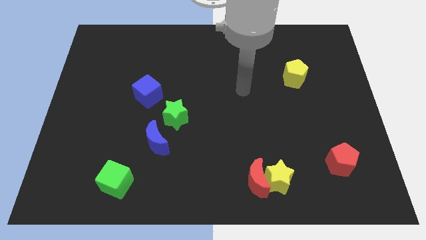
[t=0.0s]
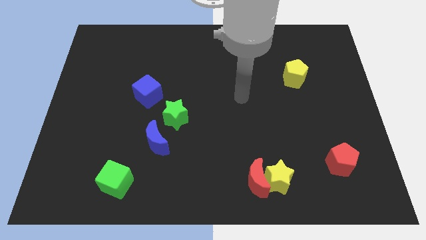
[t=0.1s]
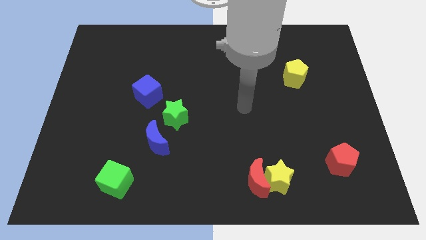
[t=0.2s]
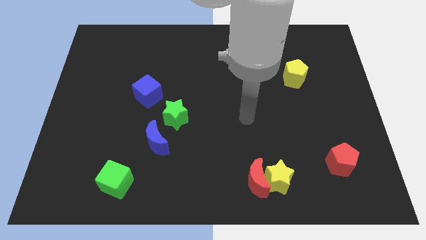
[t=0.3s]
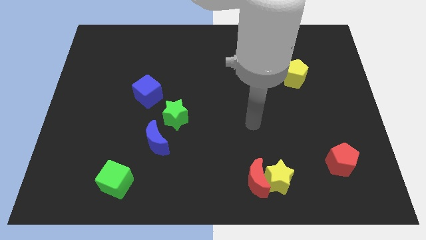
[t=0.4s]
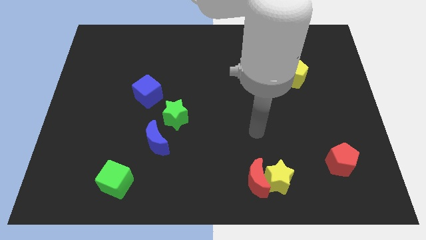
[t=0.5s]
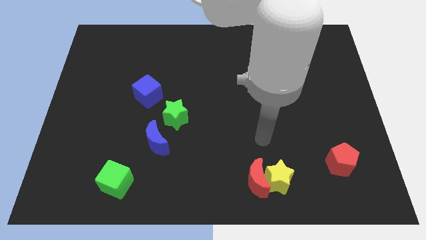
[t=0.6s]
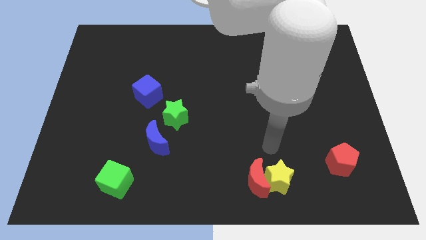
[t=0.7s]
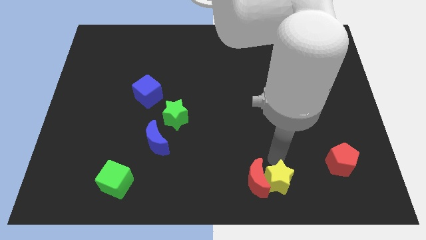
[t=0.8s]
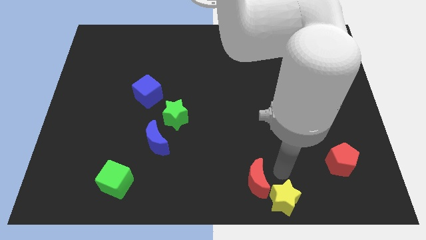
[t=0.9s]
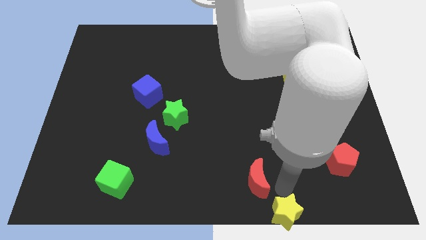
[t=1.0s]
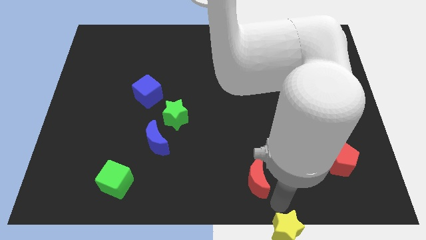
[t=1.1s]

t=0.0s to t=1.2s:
pull the red moon apart from the yellow star

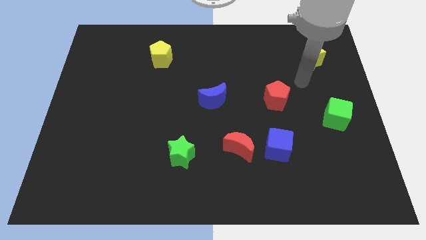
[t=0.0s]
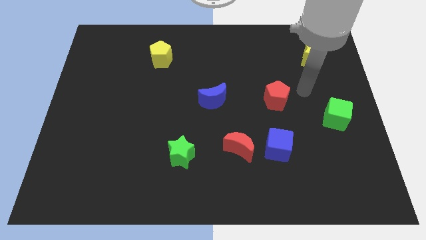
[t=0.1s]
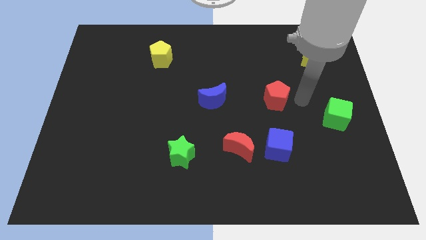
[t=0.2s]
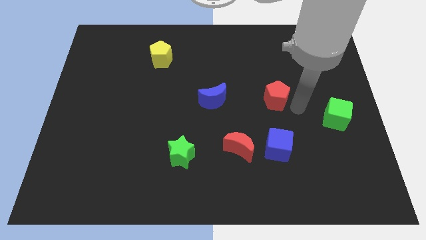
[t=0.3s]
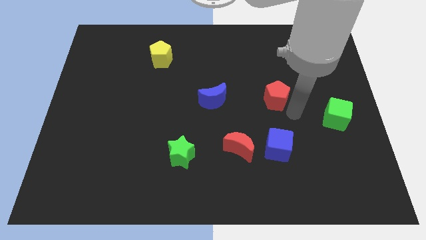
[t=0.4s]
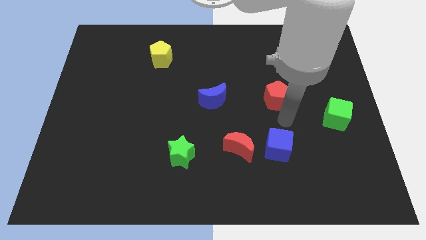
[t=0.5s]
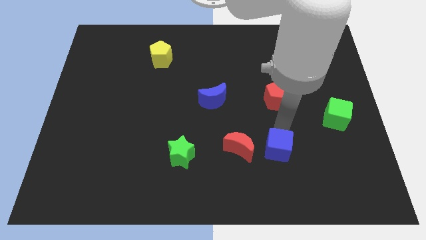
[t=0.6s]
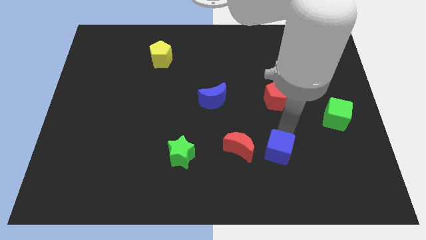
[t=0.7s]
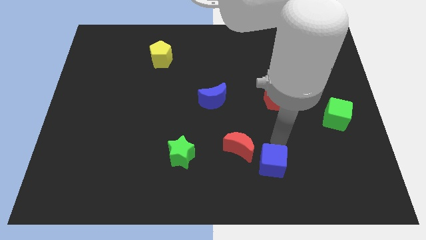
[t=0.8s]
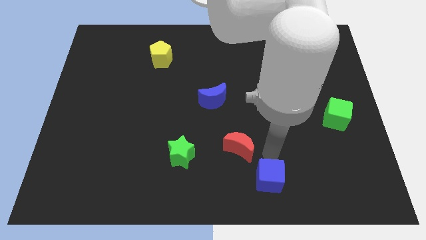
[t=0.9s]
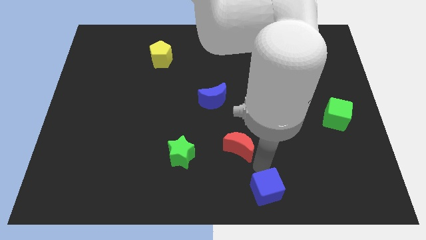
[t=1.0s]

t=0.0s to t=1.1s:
pull the red moon apart from the blue cube

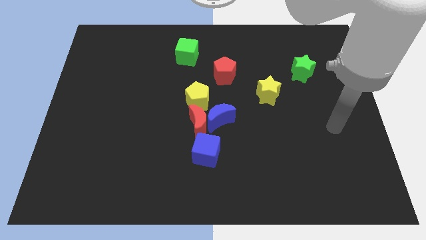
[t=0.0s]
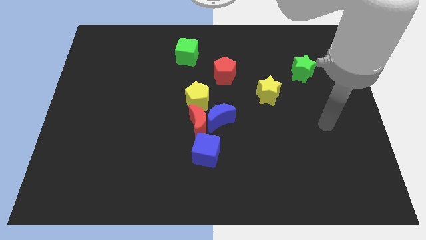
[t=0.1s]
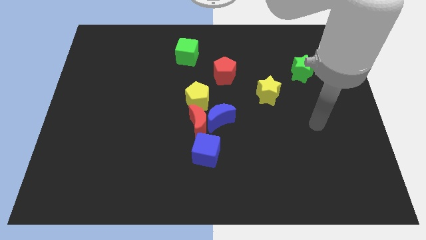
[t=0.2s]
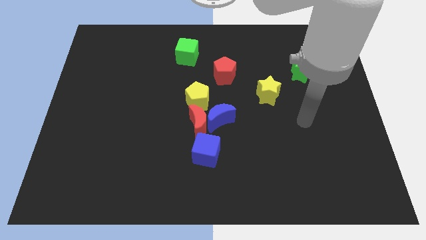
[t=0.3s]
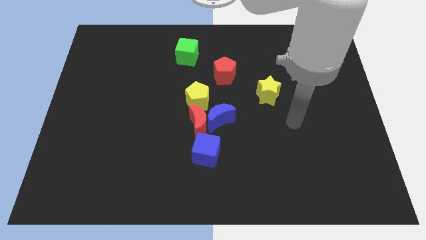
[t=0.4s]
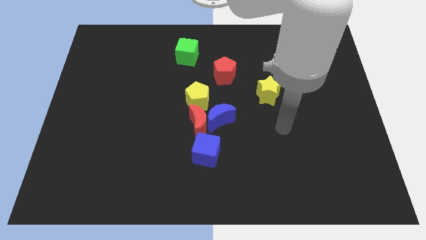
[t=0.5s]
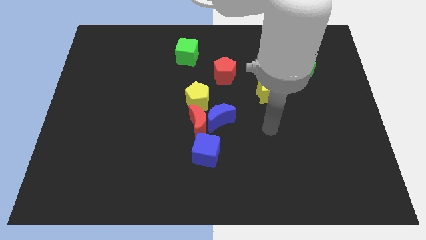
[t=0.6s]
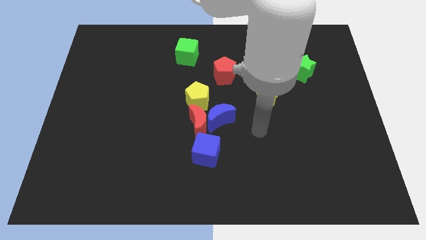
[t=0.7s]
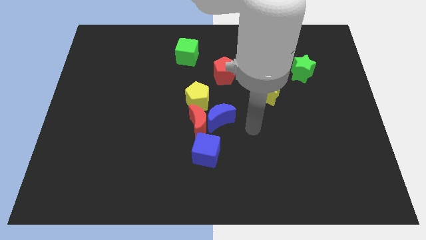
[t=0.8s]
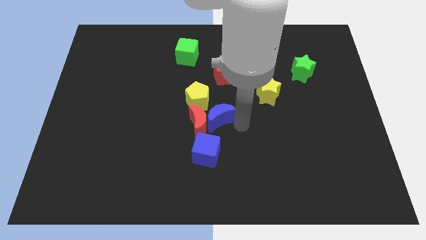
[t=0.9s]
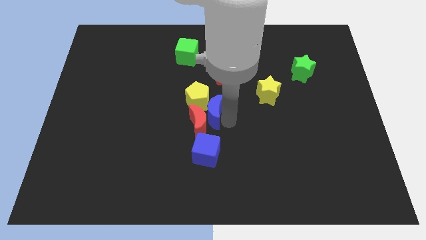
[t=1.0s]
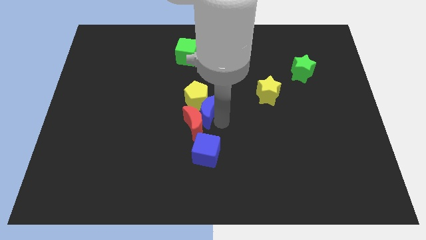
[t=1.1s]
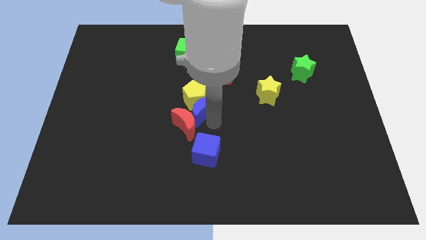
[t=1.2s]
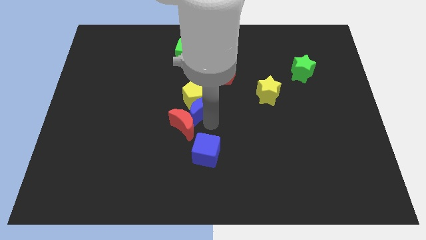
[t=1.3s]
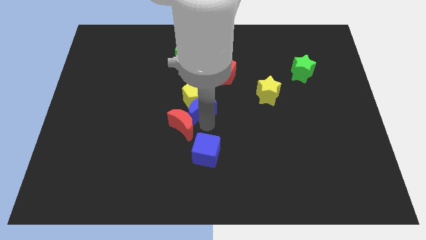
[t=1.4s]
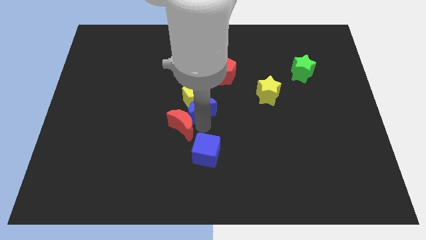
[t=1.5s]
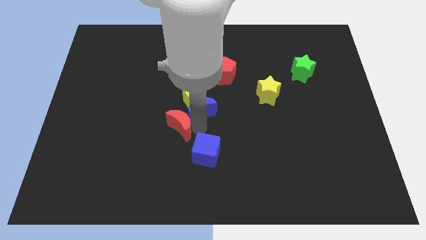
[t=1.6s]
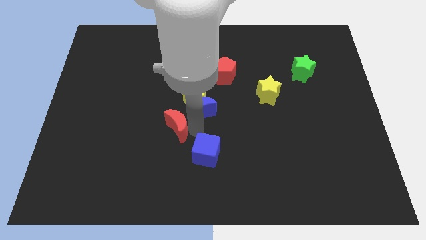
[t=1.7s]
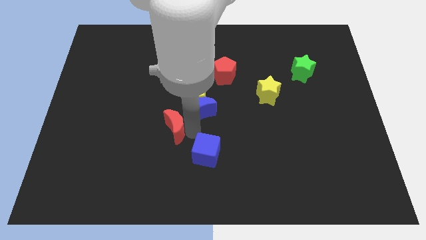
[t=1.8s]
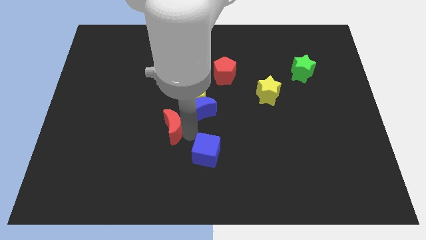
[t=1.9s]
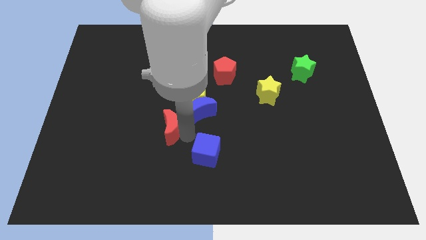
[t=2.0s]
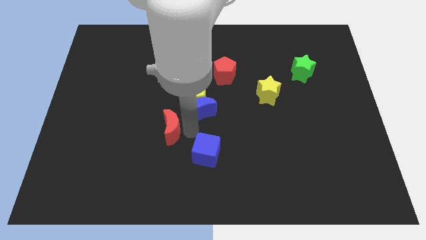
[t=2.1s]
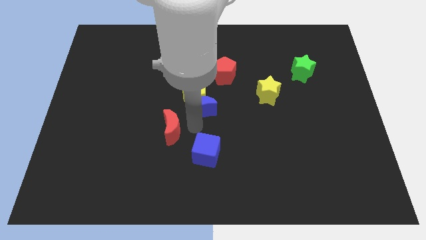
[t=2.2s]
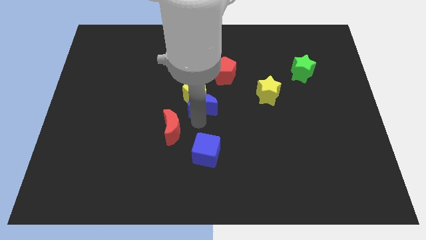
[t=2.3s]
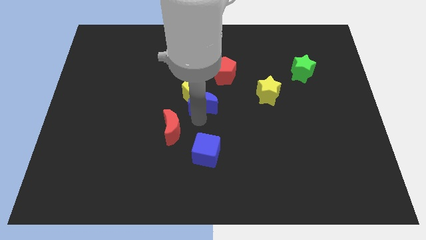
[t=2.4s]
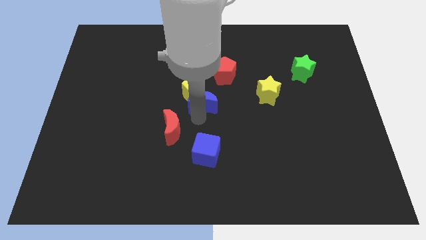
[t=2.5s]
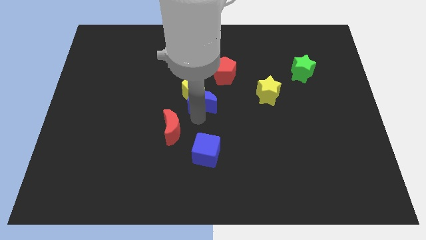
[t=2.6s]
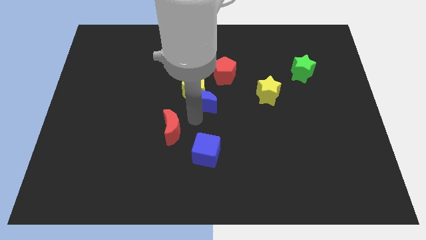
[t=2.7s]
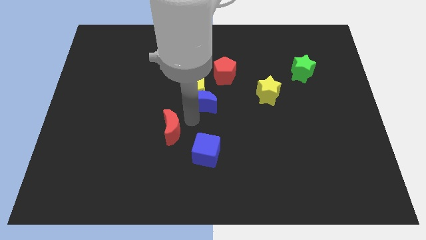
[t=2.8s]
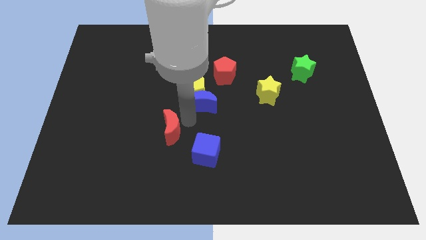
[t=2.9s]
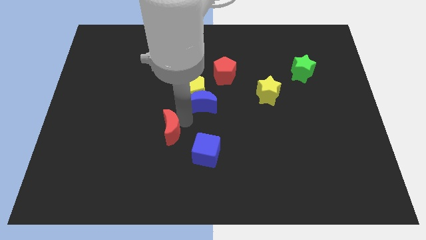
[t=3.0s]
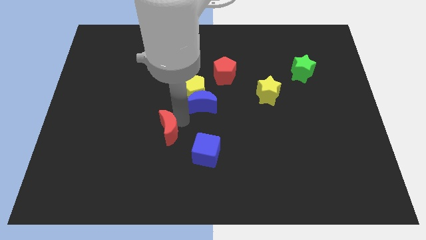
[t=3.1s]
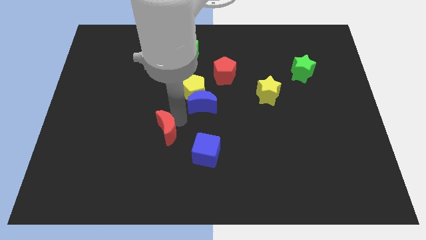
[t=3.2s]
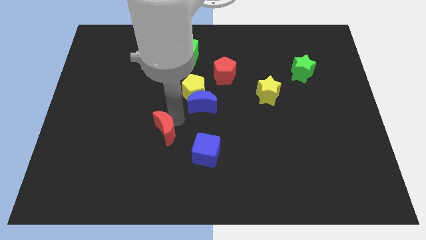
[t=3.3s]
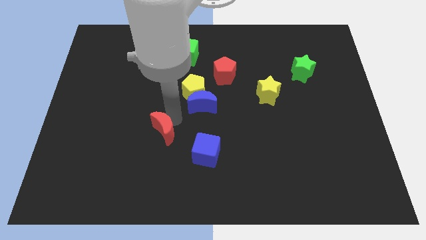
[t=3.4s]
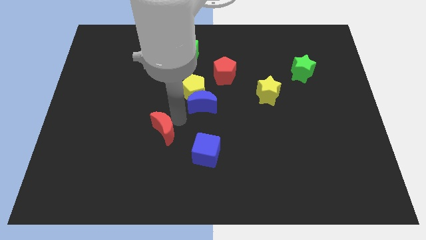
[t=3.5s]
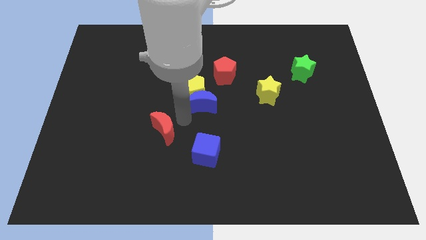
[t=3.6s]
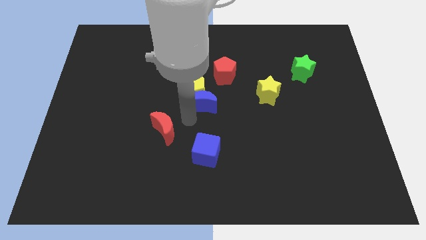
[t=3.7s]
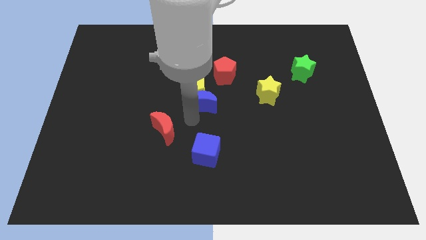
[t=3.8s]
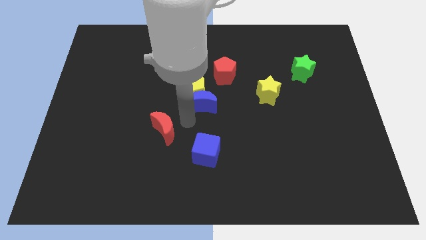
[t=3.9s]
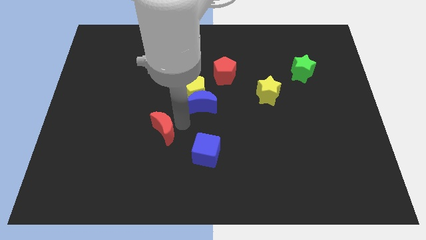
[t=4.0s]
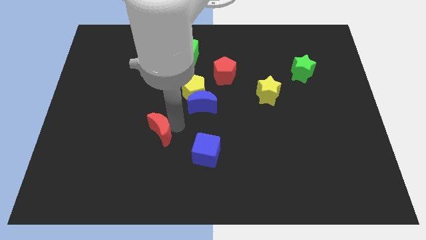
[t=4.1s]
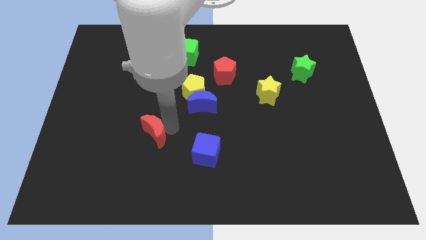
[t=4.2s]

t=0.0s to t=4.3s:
pull the red moon apart from the blue moon, yellow pentagon, and blue cube

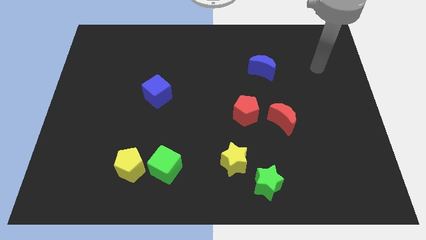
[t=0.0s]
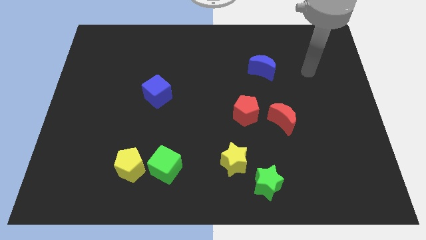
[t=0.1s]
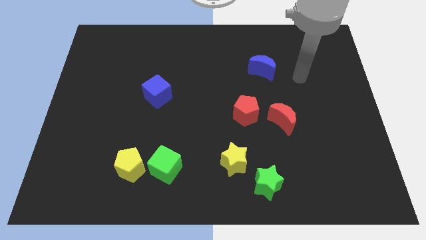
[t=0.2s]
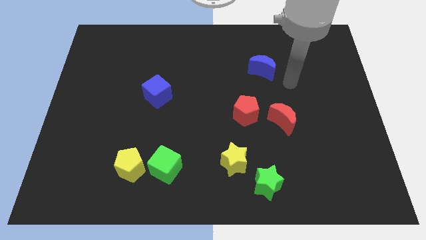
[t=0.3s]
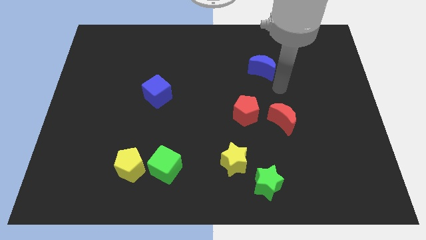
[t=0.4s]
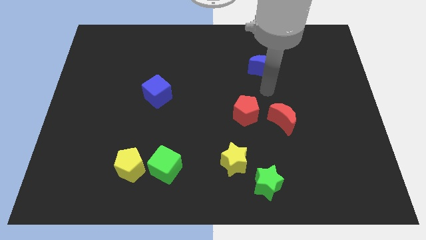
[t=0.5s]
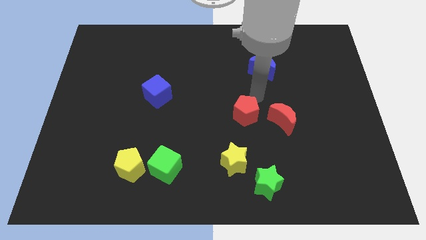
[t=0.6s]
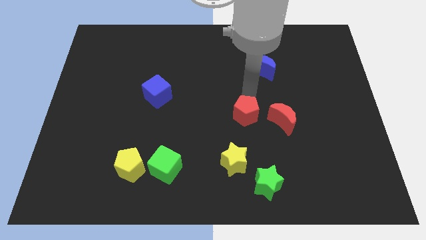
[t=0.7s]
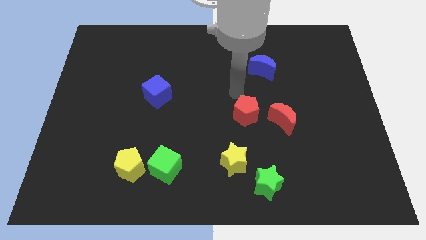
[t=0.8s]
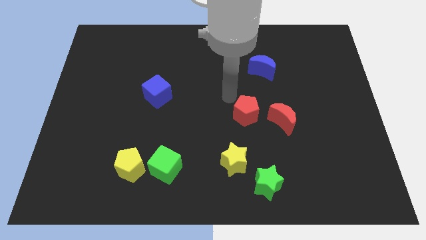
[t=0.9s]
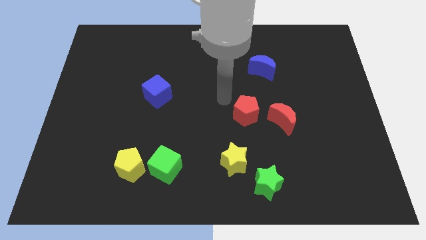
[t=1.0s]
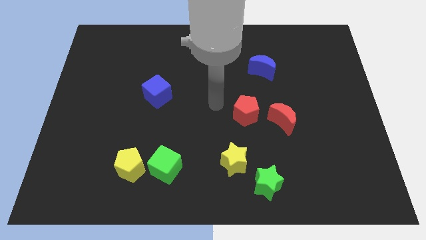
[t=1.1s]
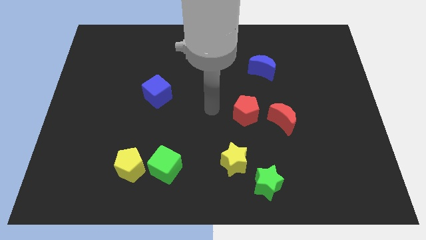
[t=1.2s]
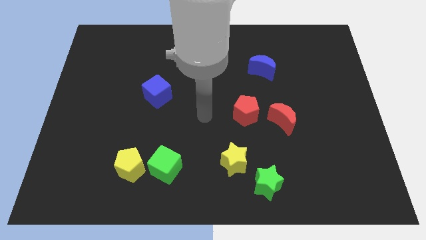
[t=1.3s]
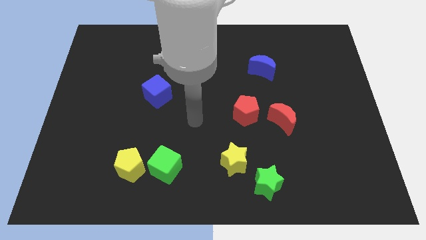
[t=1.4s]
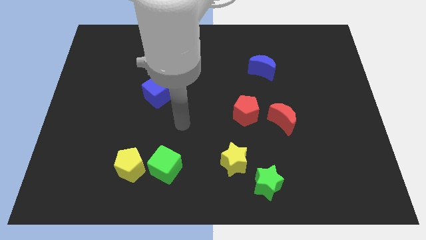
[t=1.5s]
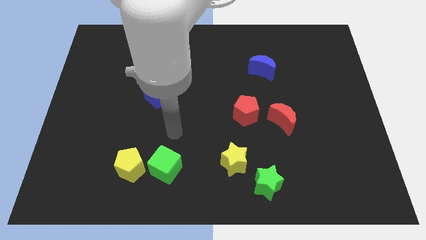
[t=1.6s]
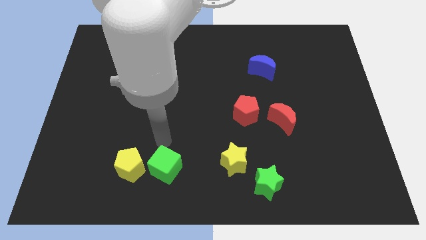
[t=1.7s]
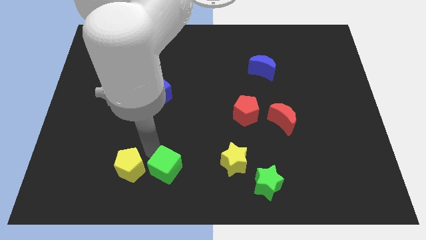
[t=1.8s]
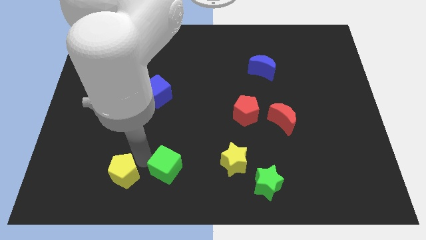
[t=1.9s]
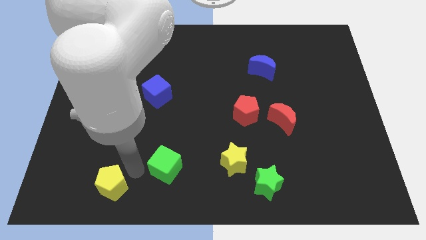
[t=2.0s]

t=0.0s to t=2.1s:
separate the green cube from the yellow pentagon

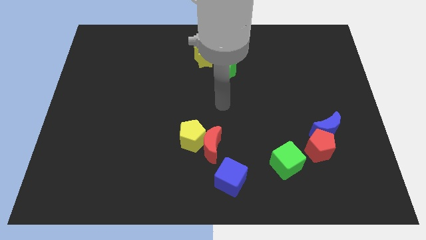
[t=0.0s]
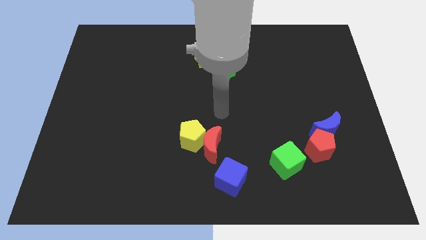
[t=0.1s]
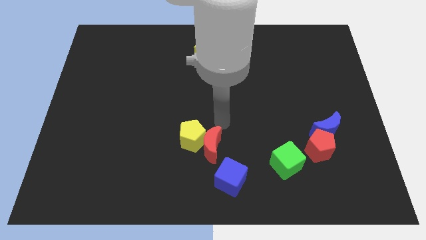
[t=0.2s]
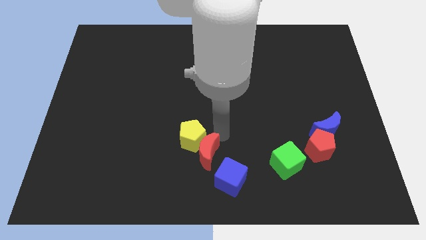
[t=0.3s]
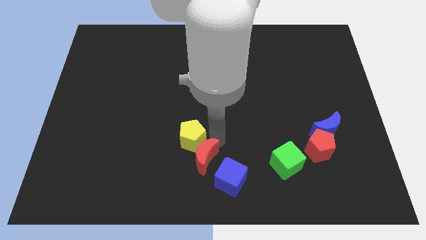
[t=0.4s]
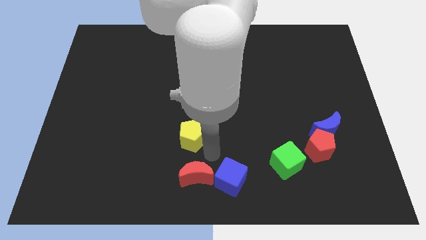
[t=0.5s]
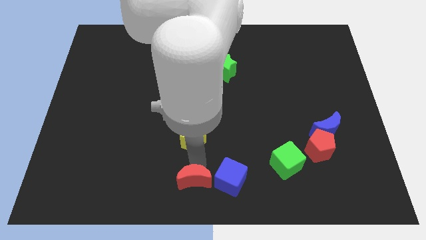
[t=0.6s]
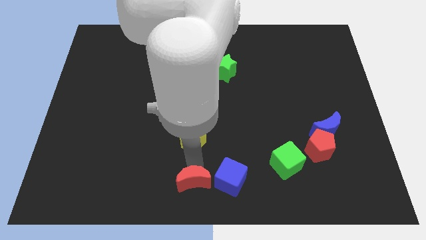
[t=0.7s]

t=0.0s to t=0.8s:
pull the yellow pentagon apart from the red moon

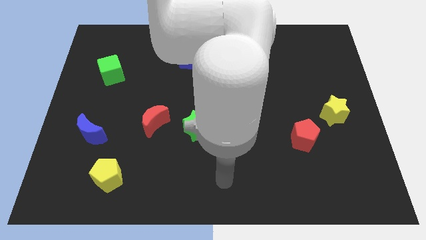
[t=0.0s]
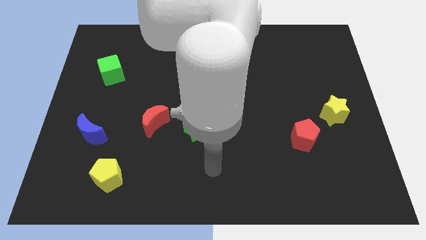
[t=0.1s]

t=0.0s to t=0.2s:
pull the red moon apart from the green star
